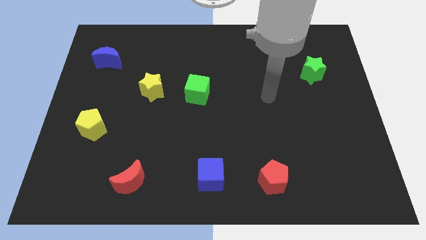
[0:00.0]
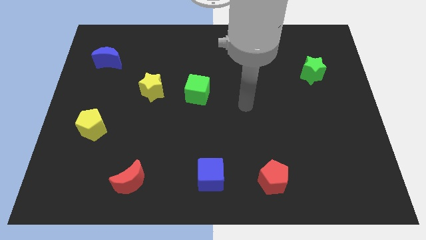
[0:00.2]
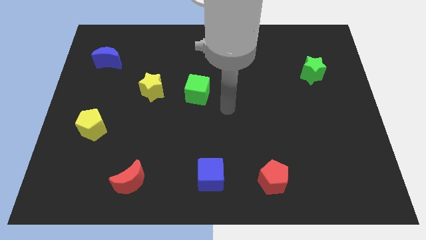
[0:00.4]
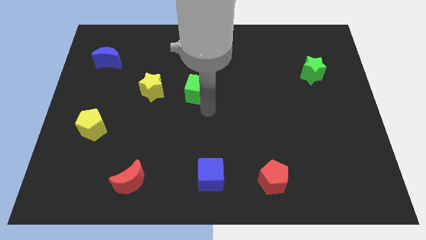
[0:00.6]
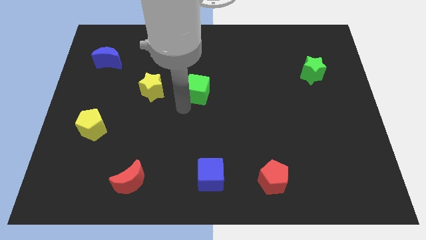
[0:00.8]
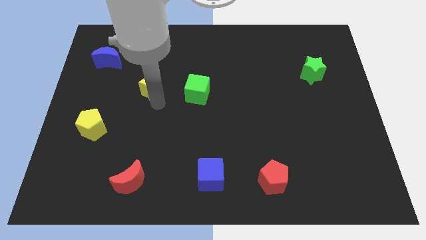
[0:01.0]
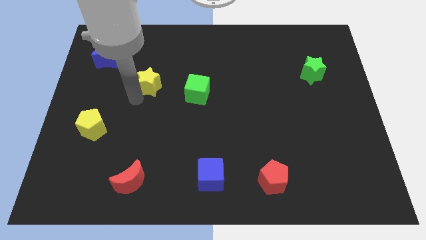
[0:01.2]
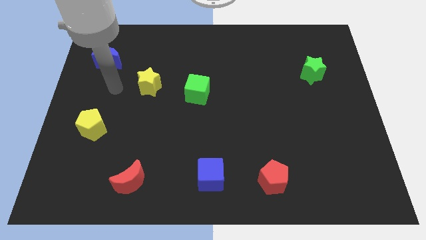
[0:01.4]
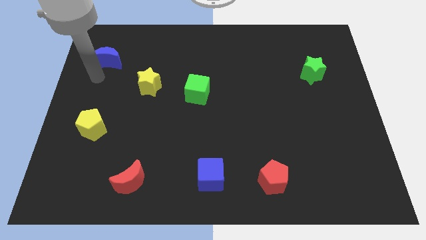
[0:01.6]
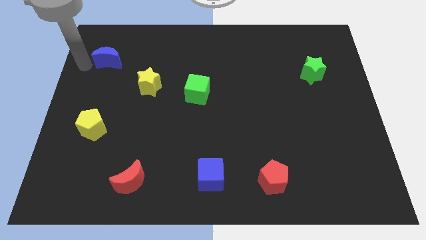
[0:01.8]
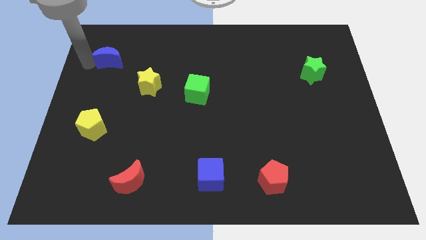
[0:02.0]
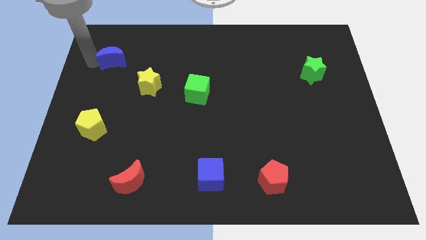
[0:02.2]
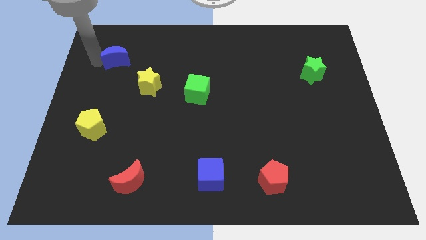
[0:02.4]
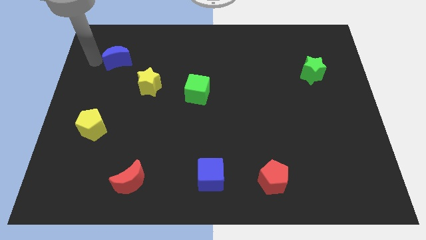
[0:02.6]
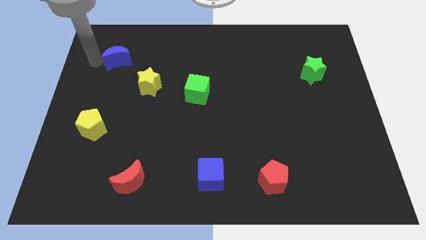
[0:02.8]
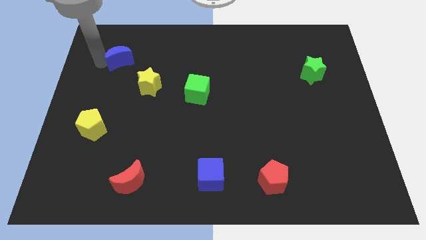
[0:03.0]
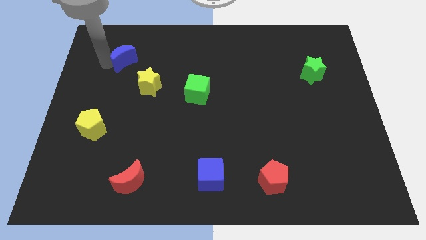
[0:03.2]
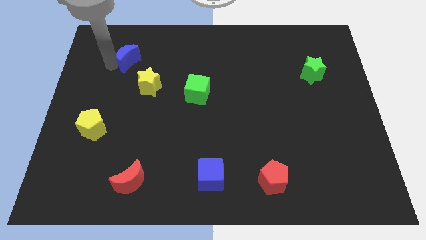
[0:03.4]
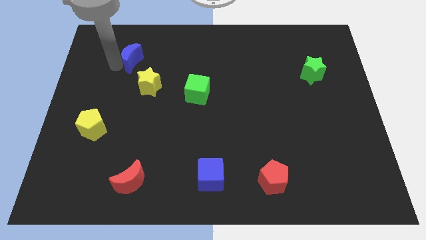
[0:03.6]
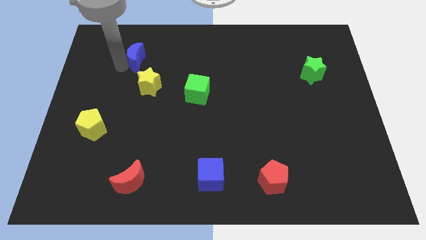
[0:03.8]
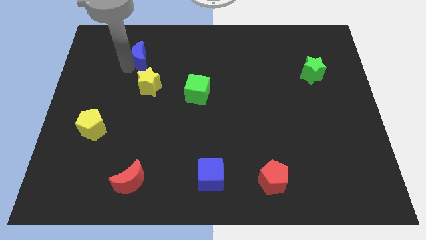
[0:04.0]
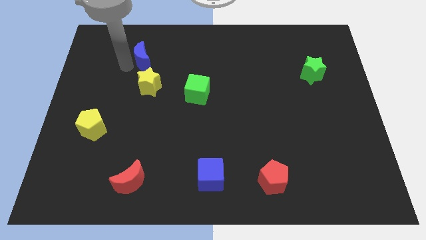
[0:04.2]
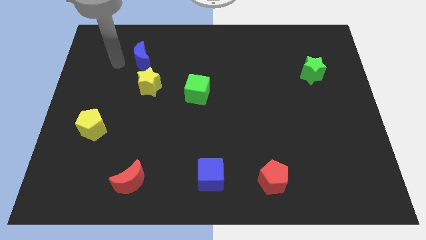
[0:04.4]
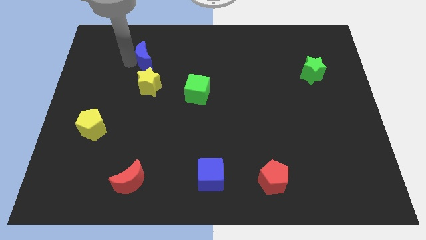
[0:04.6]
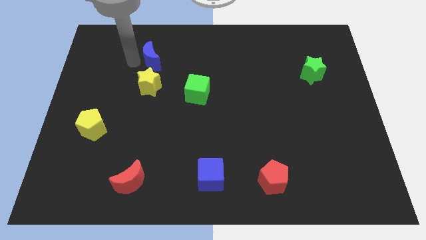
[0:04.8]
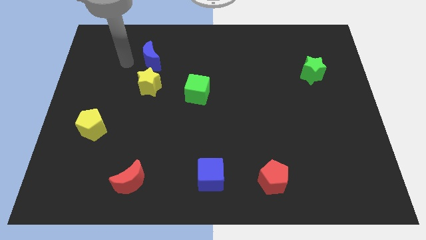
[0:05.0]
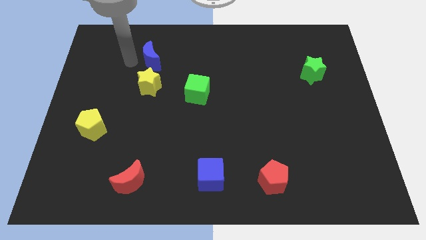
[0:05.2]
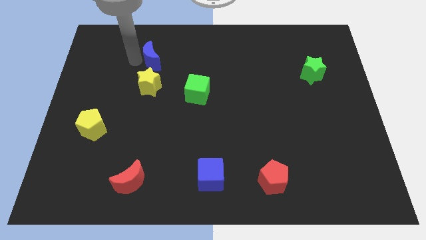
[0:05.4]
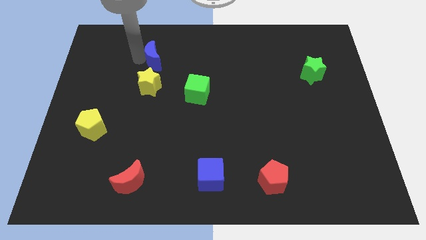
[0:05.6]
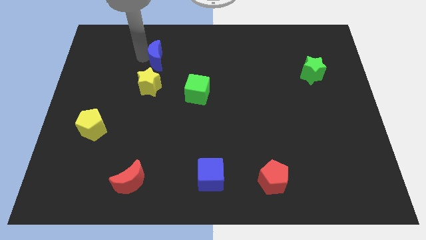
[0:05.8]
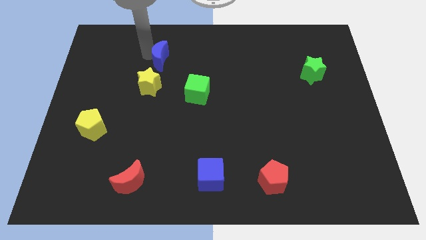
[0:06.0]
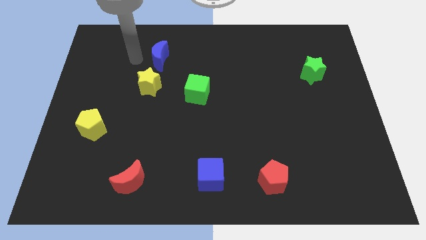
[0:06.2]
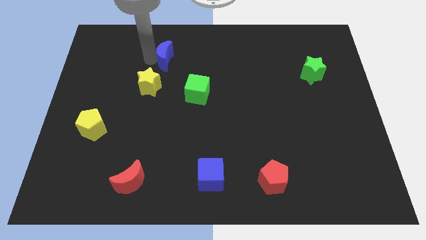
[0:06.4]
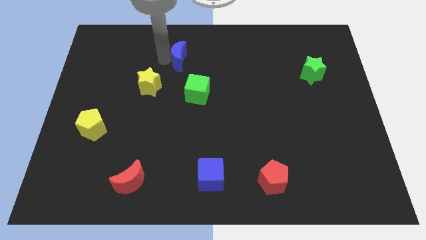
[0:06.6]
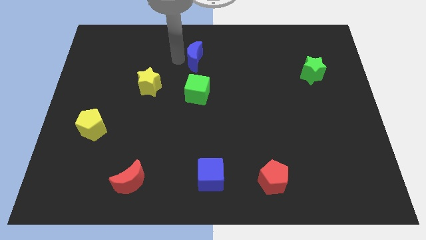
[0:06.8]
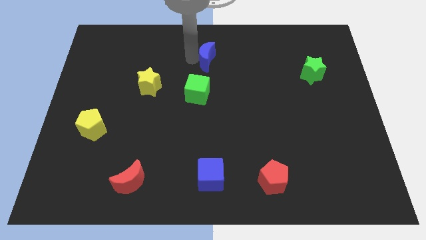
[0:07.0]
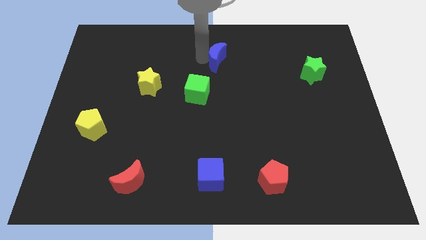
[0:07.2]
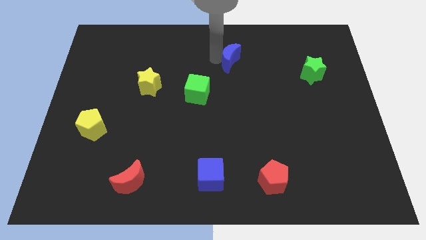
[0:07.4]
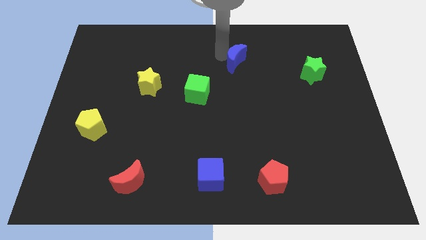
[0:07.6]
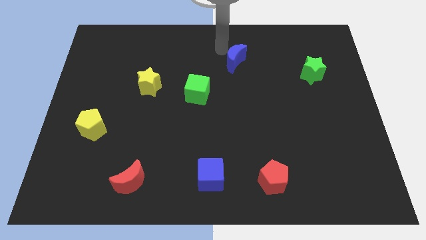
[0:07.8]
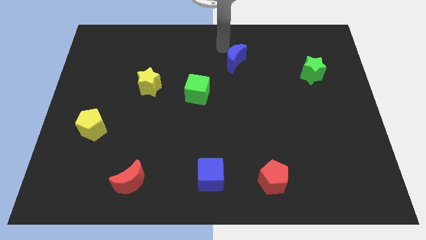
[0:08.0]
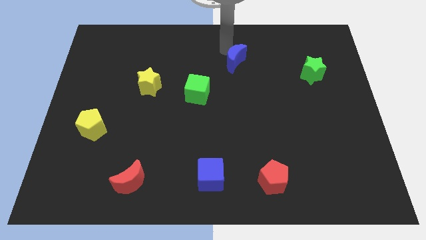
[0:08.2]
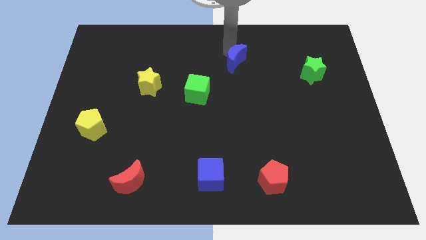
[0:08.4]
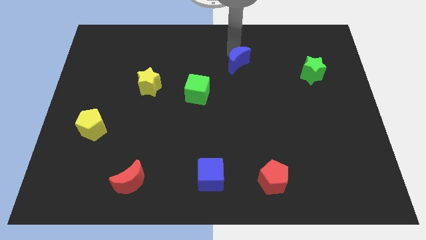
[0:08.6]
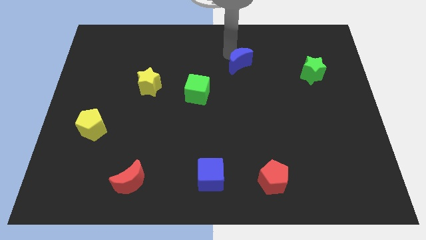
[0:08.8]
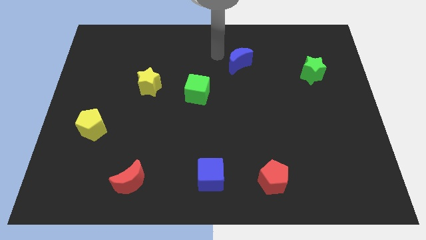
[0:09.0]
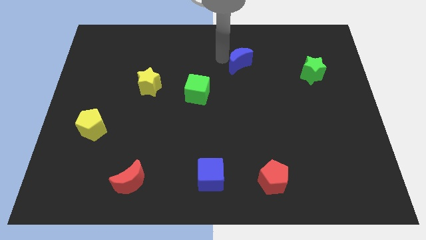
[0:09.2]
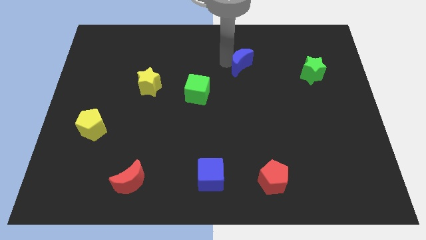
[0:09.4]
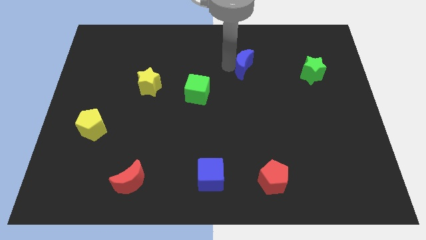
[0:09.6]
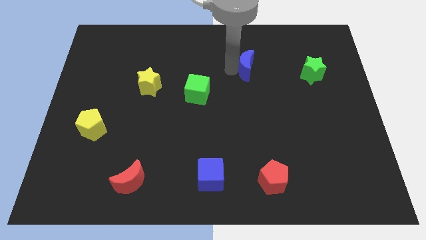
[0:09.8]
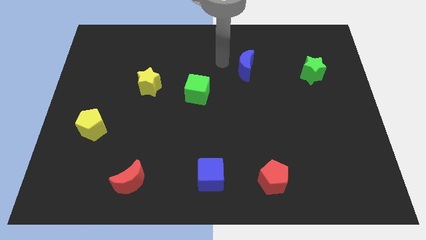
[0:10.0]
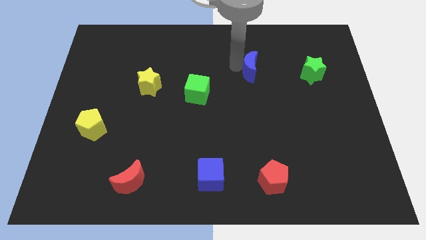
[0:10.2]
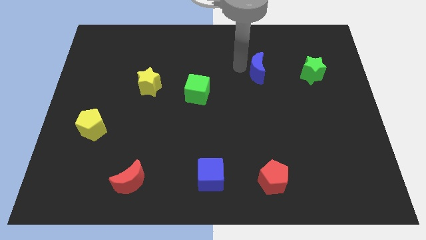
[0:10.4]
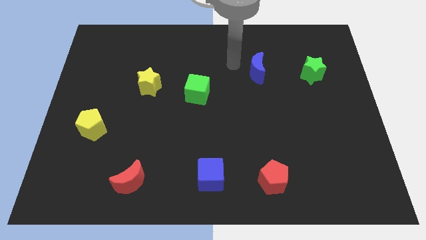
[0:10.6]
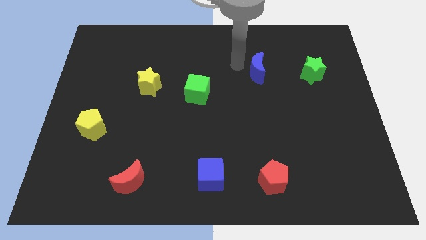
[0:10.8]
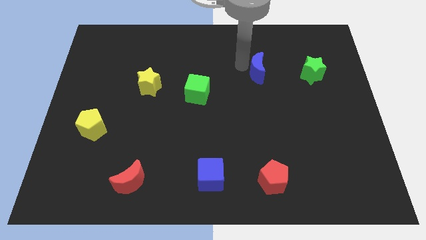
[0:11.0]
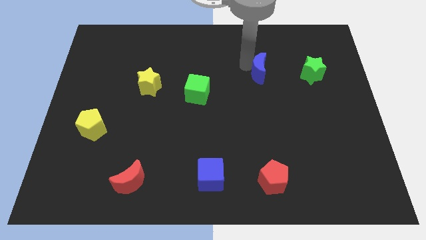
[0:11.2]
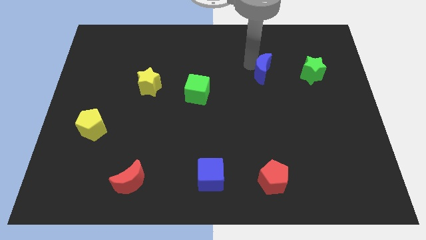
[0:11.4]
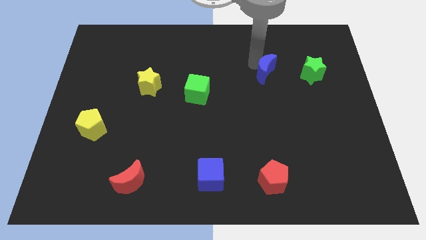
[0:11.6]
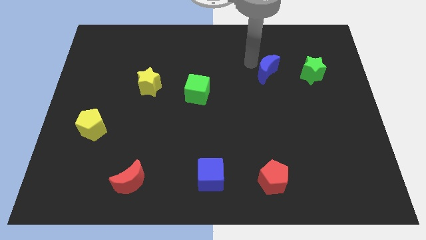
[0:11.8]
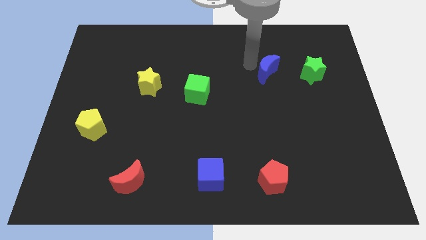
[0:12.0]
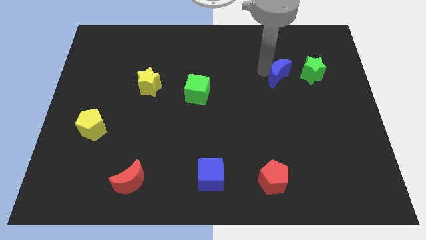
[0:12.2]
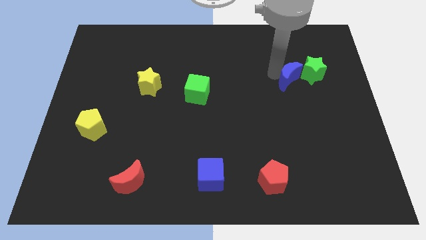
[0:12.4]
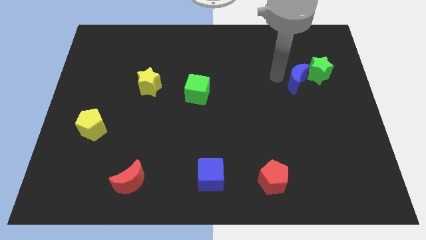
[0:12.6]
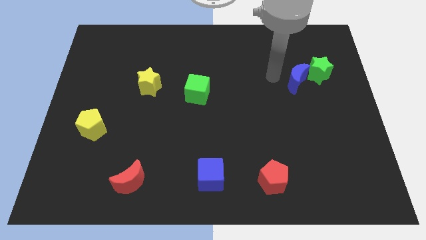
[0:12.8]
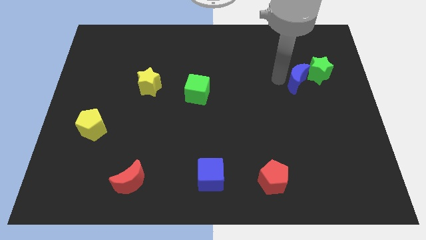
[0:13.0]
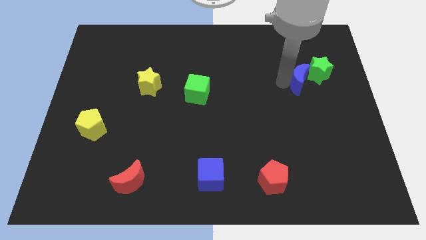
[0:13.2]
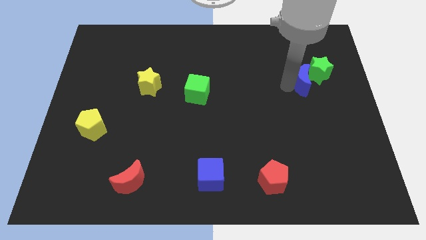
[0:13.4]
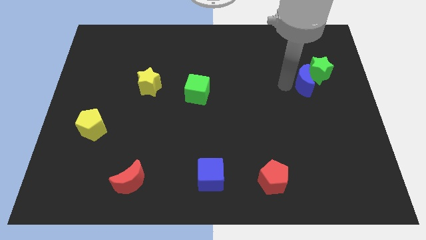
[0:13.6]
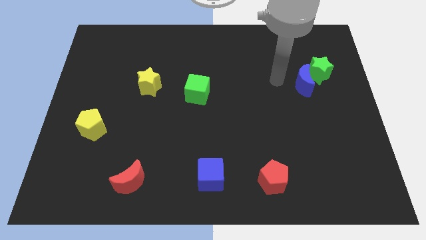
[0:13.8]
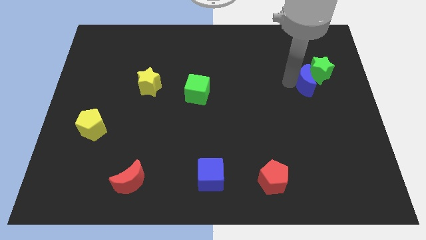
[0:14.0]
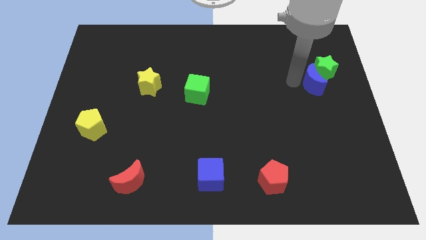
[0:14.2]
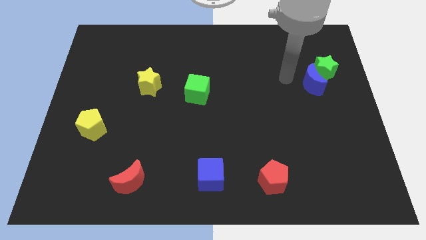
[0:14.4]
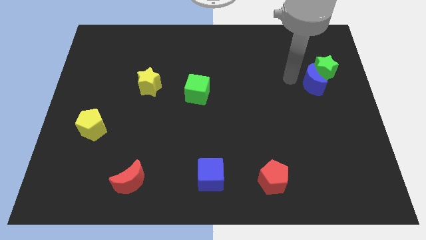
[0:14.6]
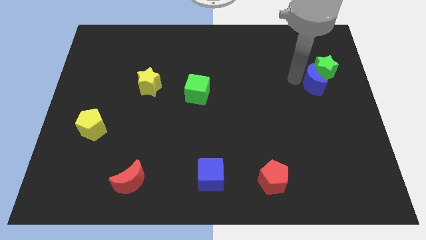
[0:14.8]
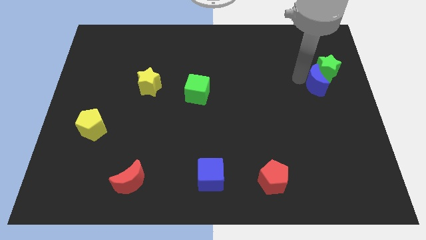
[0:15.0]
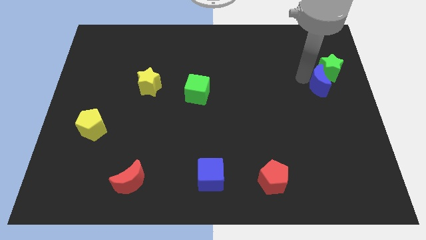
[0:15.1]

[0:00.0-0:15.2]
put the blue moon to the right side of the board
